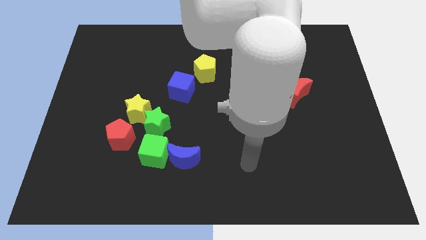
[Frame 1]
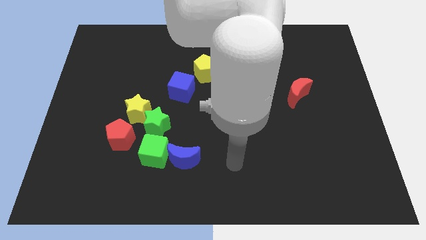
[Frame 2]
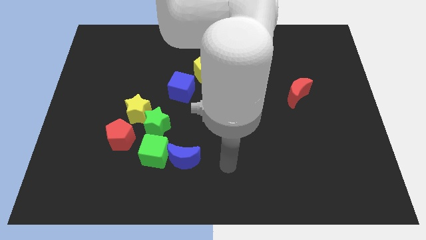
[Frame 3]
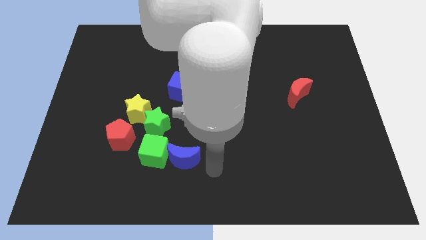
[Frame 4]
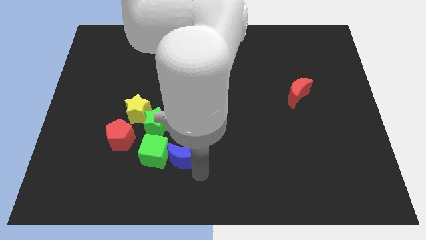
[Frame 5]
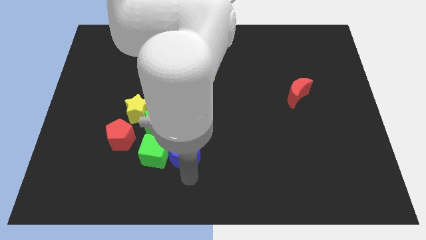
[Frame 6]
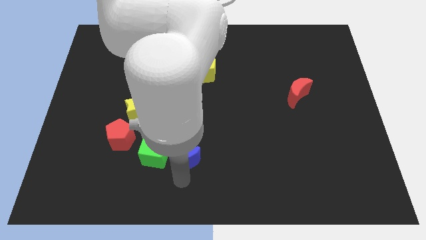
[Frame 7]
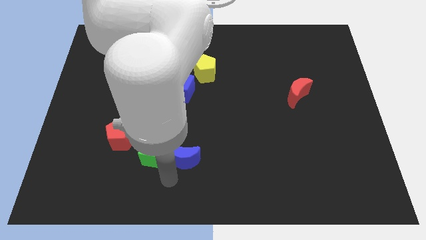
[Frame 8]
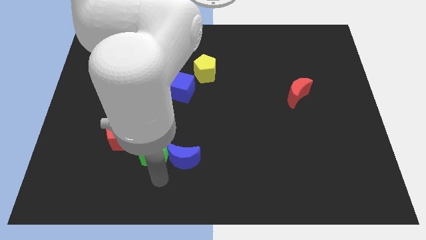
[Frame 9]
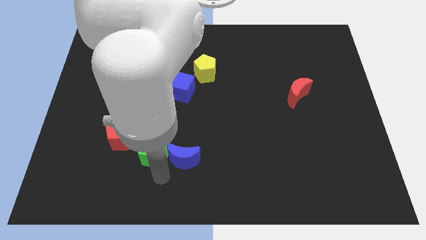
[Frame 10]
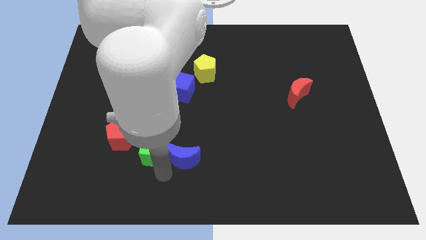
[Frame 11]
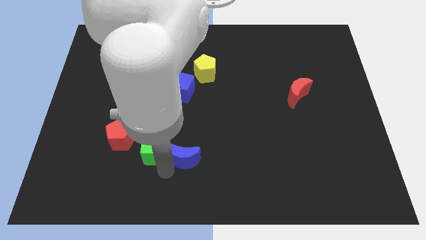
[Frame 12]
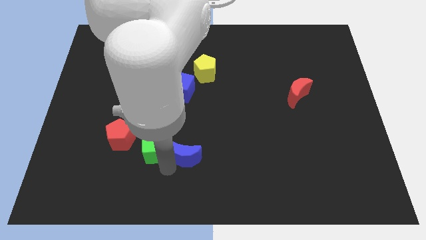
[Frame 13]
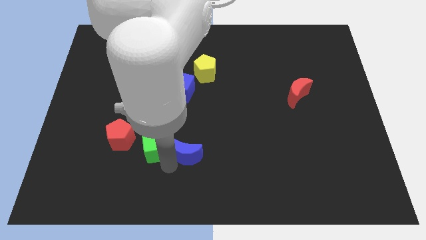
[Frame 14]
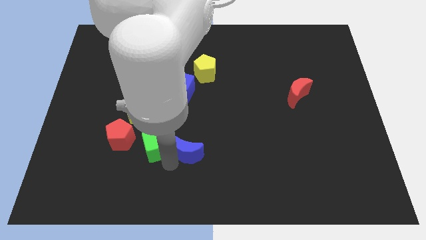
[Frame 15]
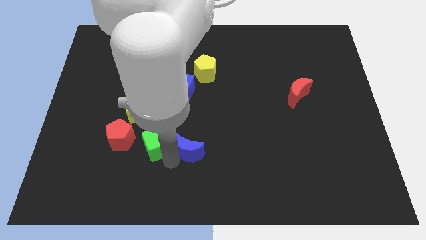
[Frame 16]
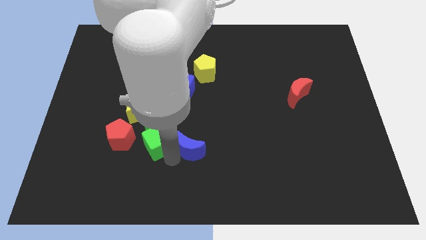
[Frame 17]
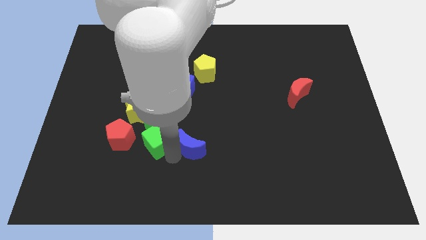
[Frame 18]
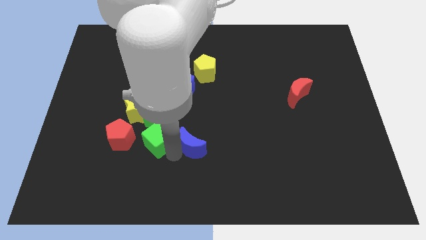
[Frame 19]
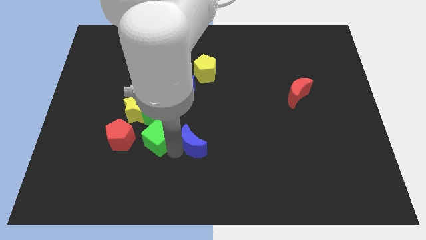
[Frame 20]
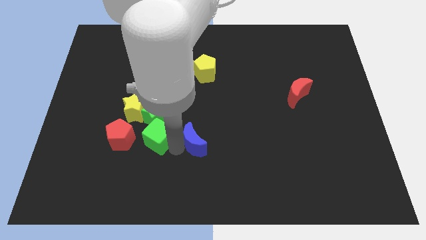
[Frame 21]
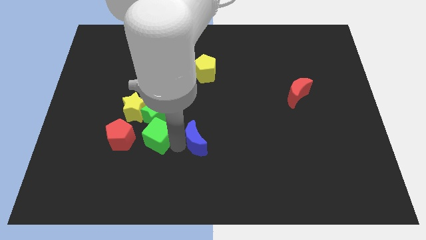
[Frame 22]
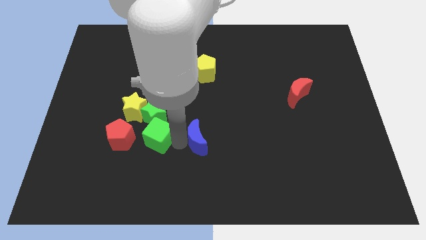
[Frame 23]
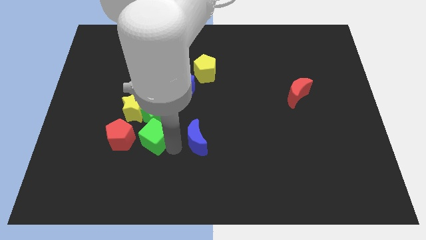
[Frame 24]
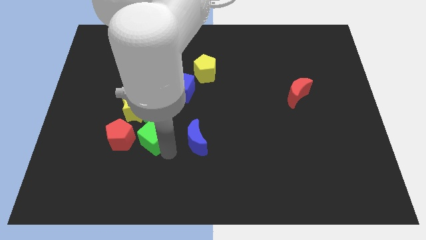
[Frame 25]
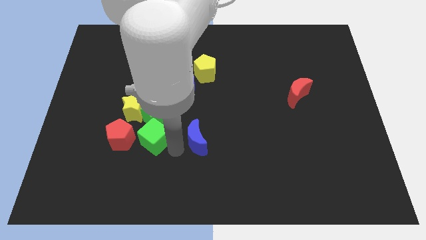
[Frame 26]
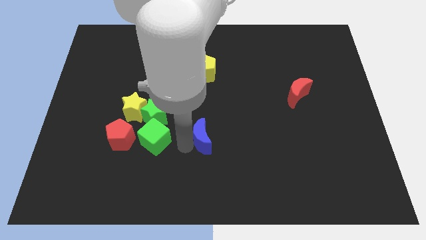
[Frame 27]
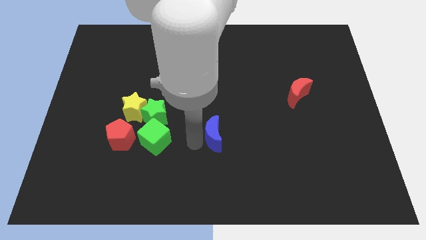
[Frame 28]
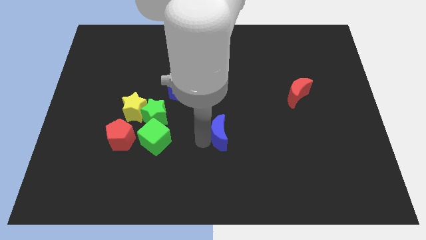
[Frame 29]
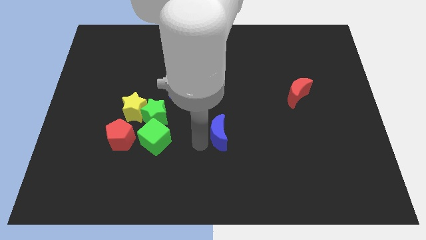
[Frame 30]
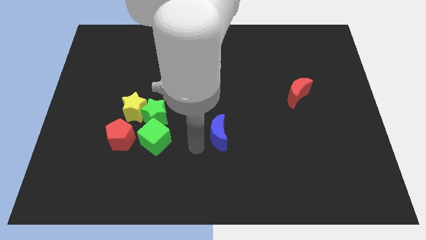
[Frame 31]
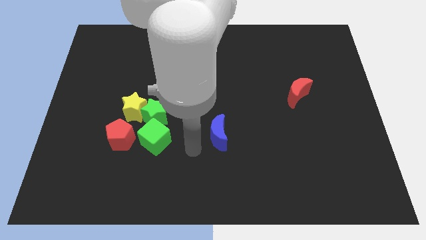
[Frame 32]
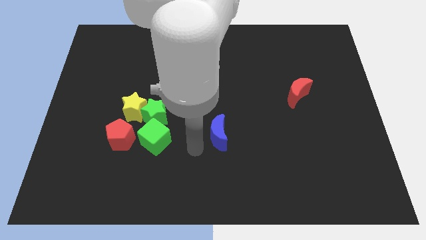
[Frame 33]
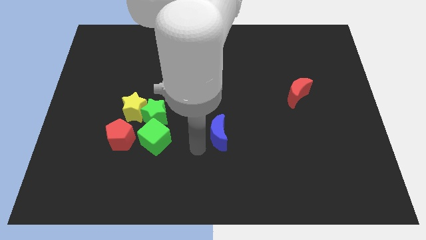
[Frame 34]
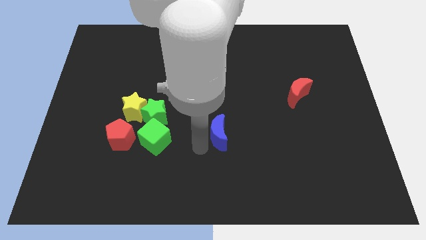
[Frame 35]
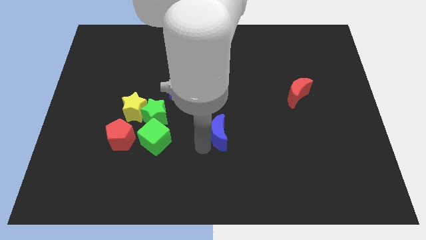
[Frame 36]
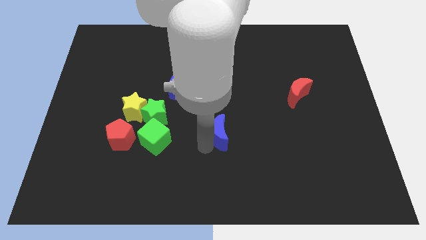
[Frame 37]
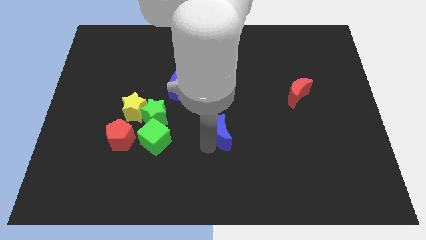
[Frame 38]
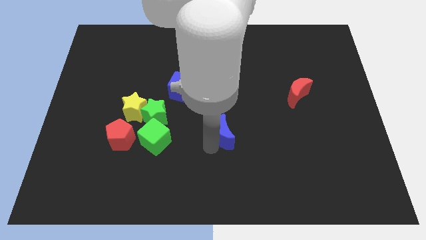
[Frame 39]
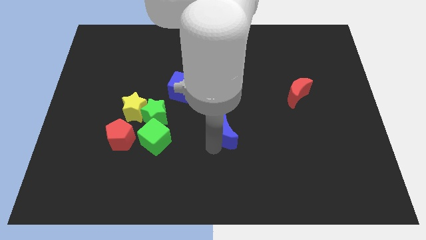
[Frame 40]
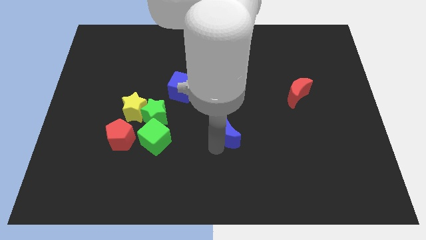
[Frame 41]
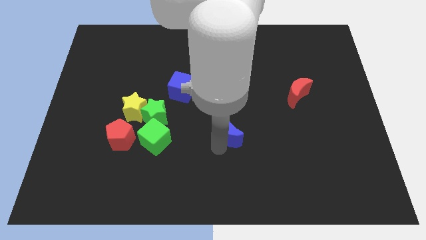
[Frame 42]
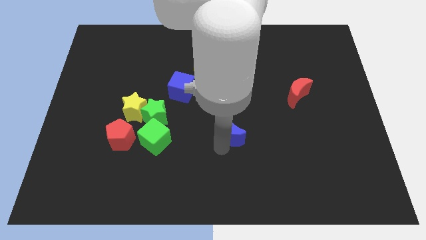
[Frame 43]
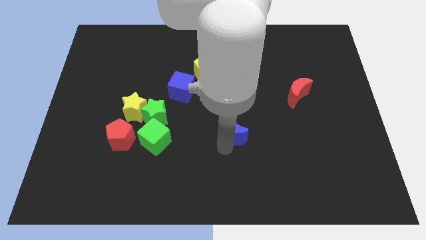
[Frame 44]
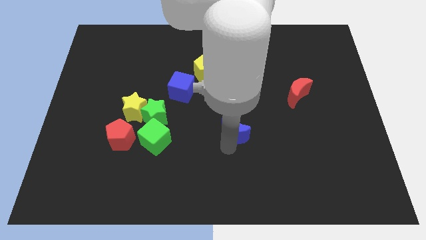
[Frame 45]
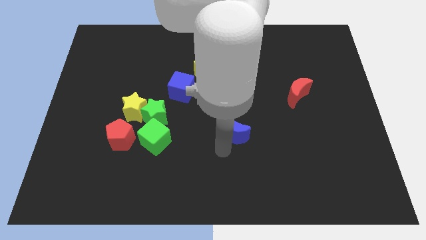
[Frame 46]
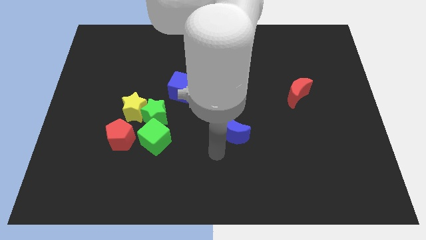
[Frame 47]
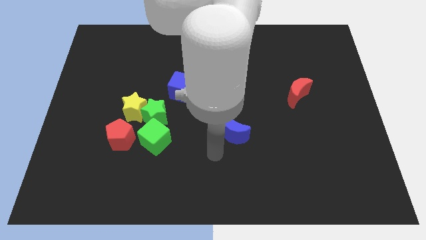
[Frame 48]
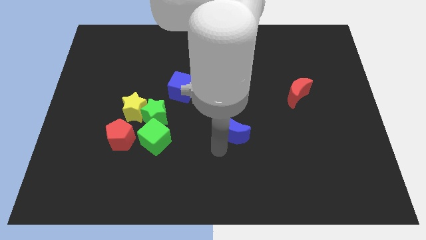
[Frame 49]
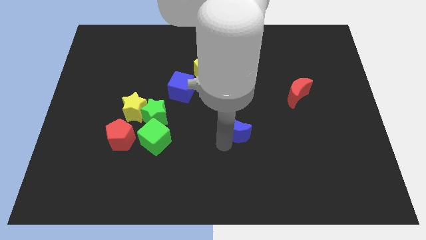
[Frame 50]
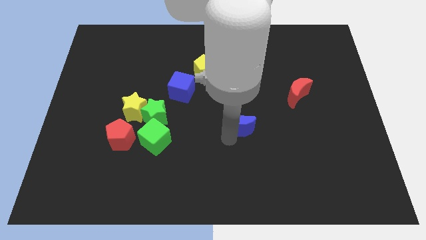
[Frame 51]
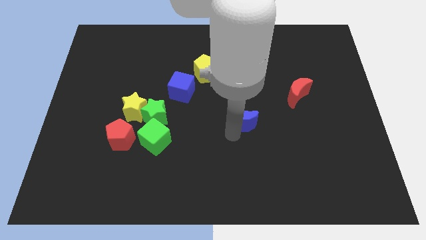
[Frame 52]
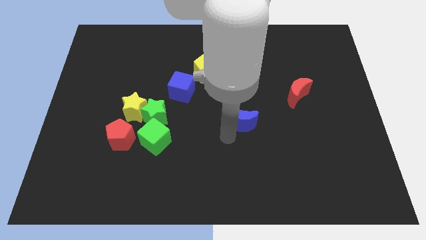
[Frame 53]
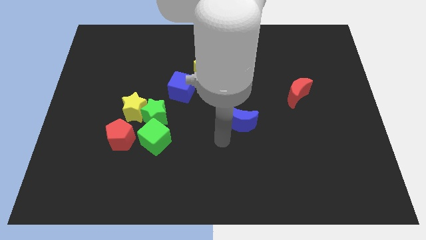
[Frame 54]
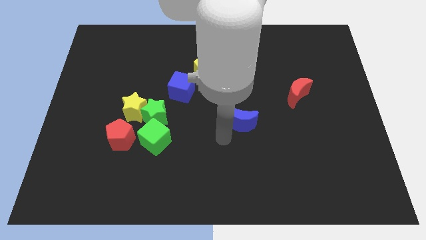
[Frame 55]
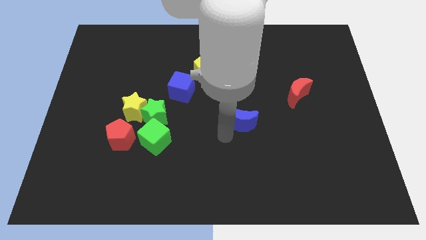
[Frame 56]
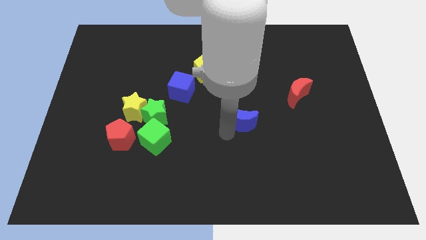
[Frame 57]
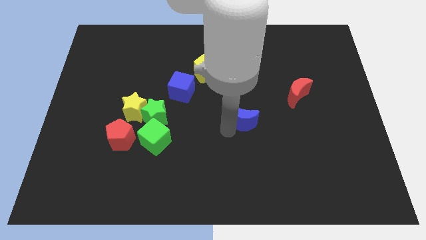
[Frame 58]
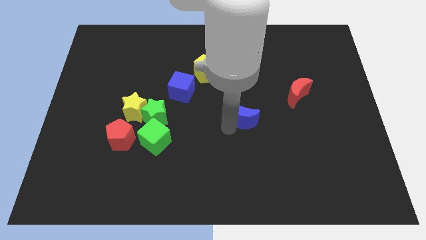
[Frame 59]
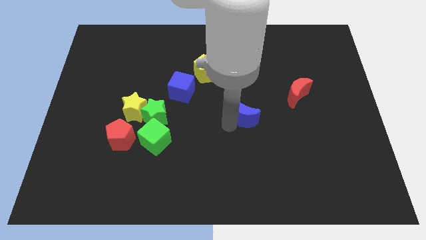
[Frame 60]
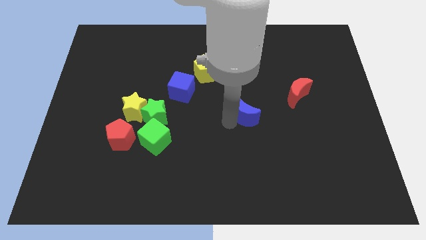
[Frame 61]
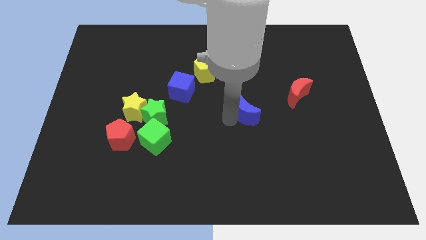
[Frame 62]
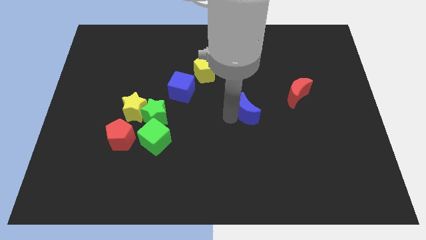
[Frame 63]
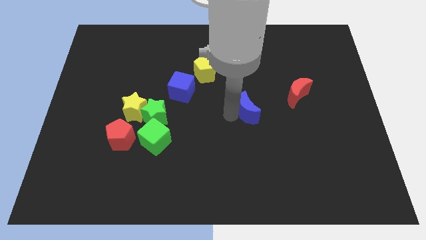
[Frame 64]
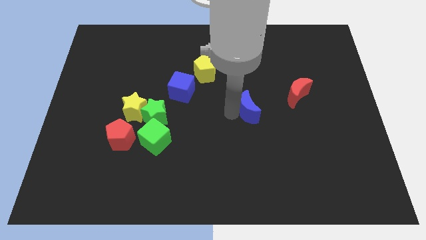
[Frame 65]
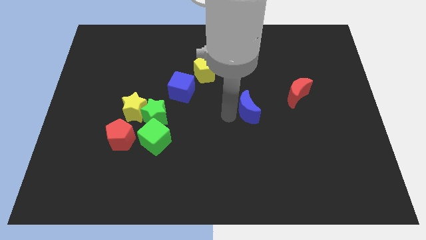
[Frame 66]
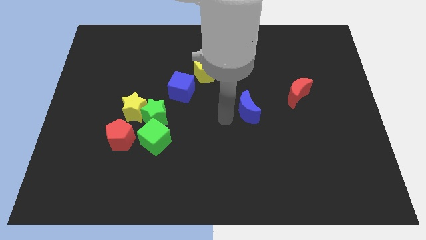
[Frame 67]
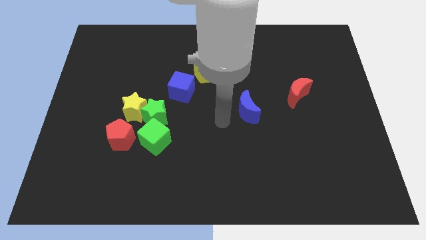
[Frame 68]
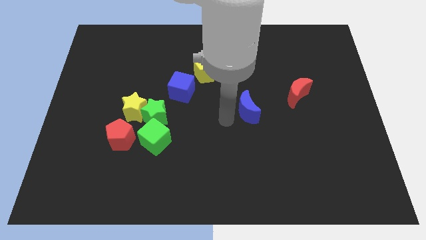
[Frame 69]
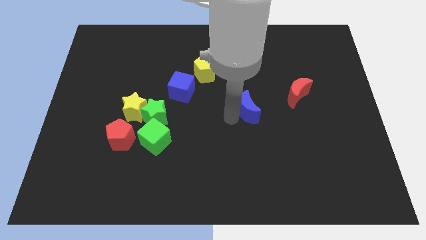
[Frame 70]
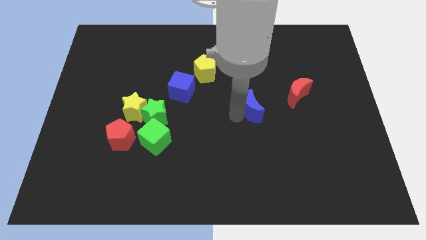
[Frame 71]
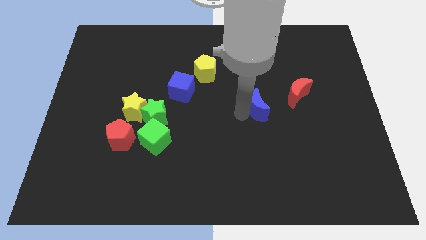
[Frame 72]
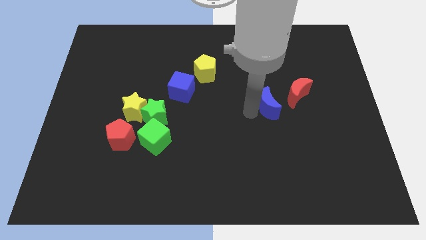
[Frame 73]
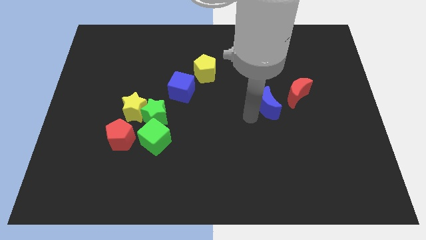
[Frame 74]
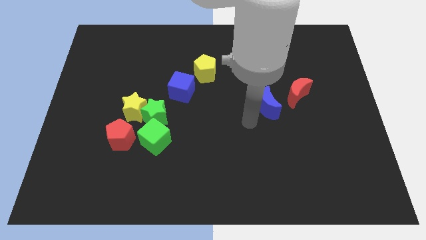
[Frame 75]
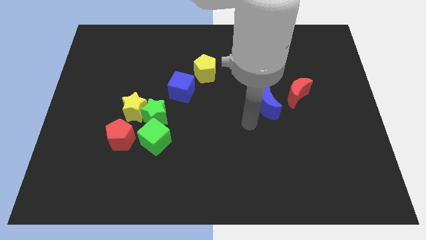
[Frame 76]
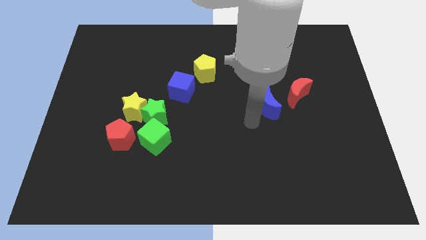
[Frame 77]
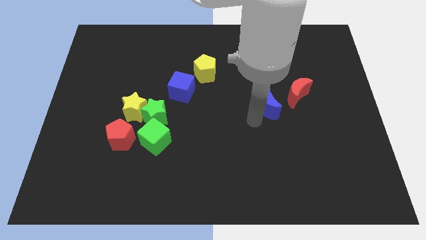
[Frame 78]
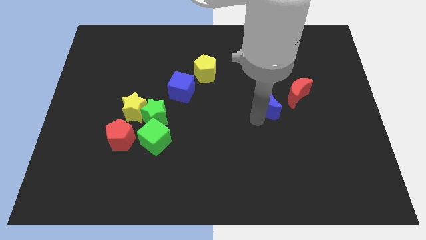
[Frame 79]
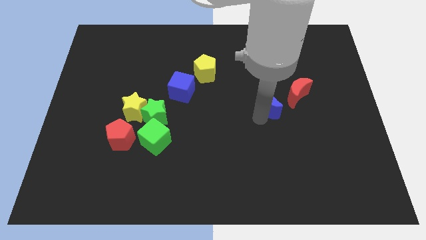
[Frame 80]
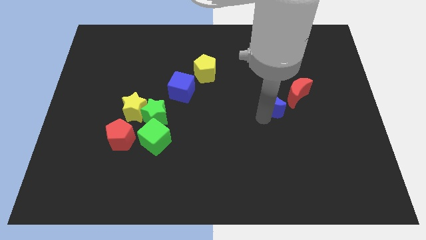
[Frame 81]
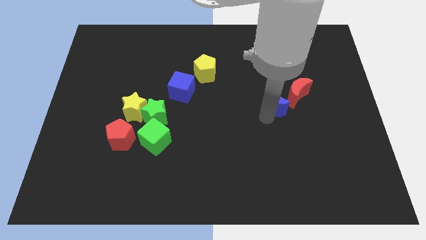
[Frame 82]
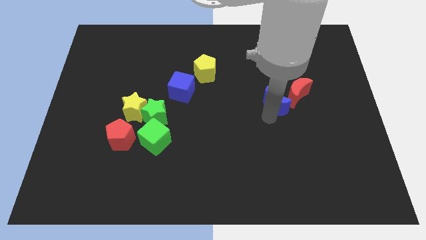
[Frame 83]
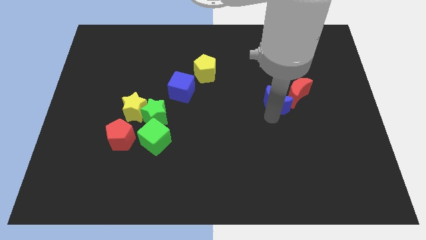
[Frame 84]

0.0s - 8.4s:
push the blue moon to the red moon
